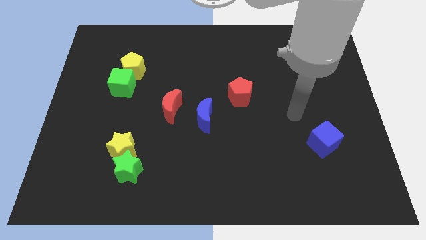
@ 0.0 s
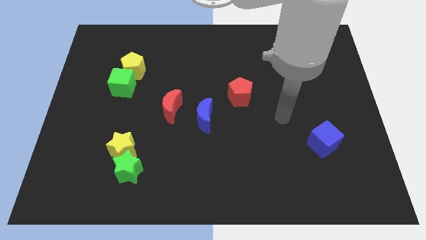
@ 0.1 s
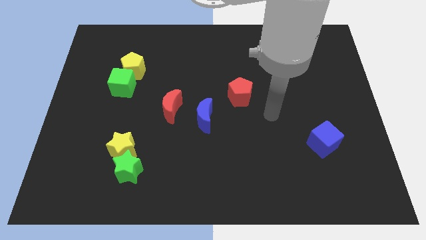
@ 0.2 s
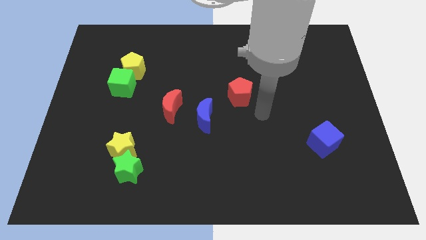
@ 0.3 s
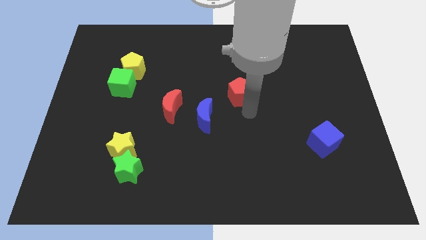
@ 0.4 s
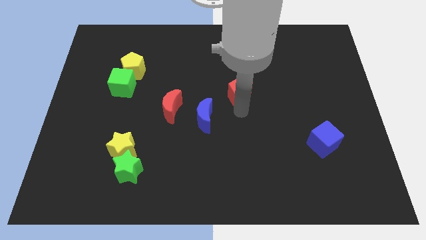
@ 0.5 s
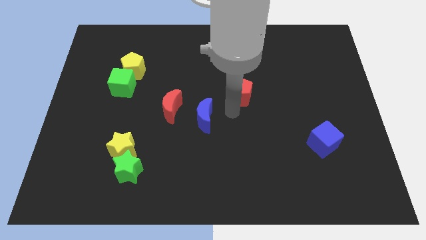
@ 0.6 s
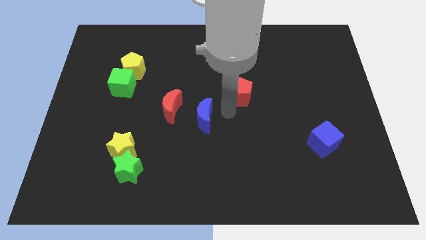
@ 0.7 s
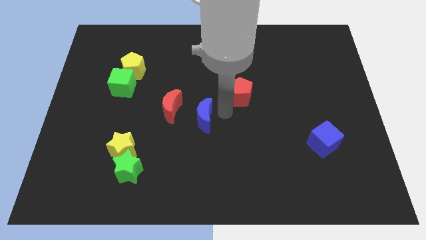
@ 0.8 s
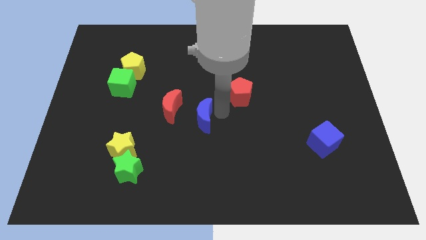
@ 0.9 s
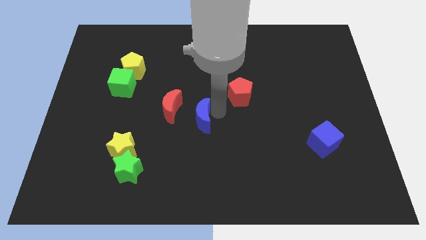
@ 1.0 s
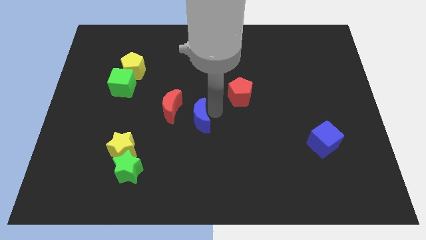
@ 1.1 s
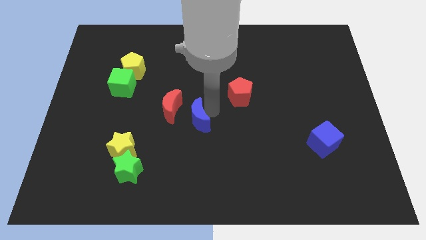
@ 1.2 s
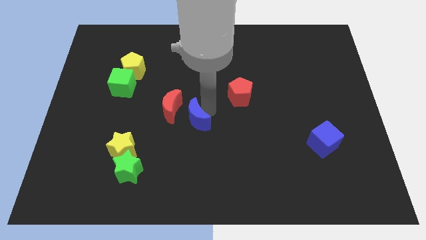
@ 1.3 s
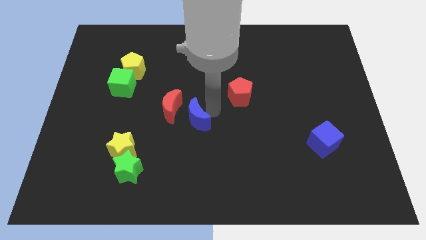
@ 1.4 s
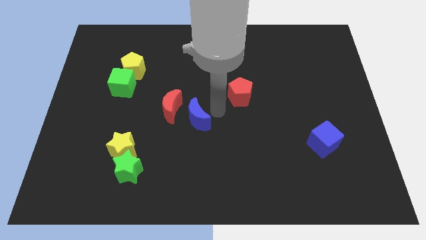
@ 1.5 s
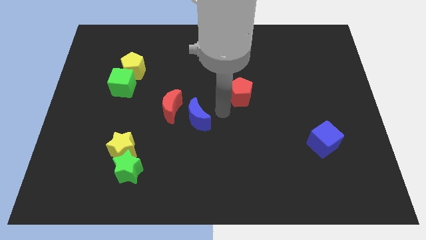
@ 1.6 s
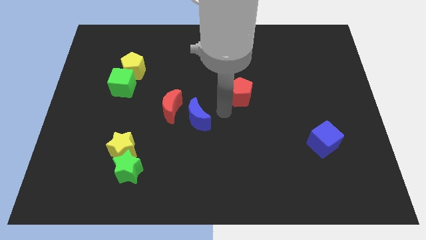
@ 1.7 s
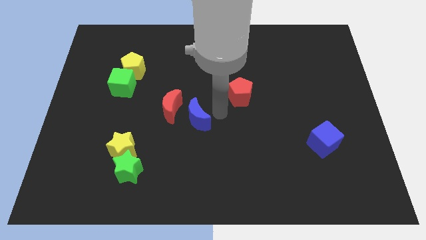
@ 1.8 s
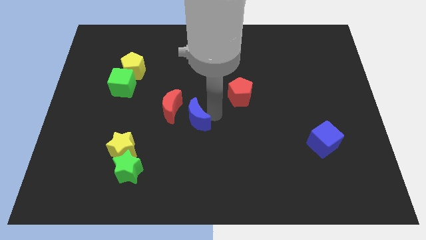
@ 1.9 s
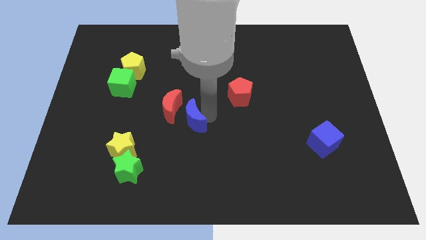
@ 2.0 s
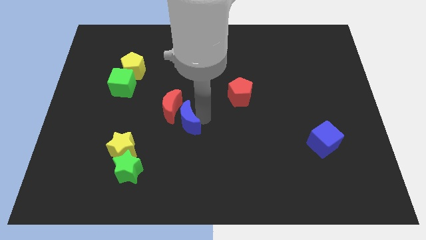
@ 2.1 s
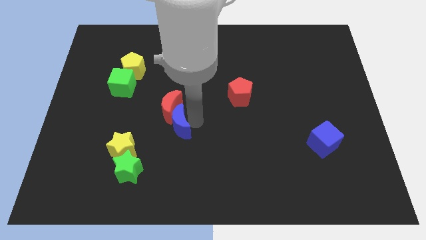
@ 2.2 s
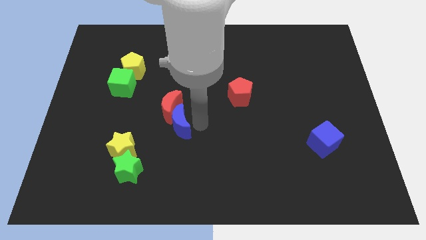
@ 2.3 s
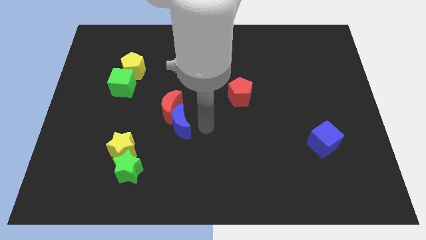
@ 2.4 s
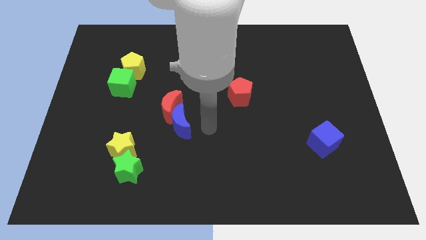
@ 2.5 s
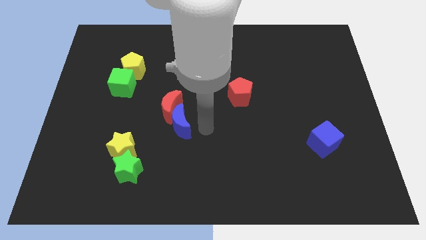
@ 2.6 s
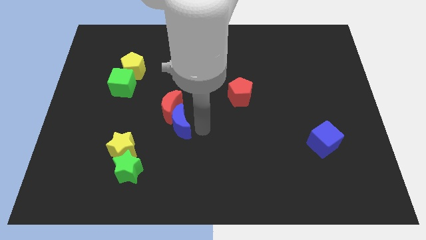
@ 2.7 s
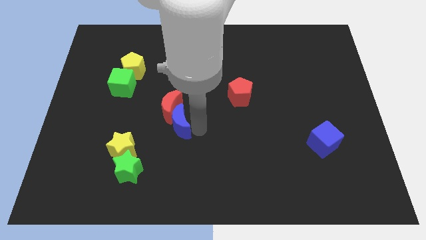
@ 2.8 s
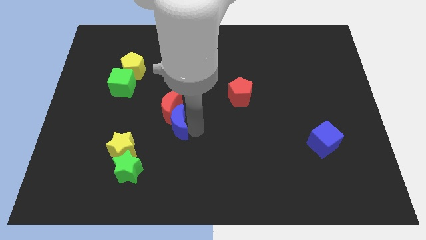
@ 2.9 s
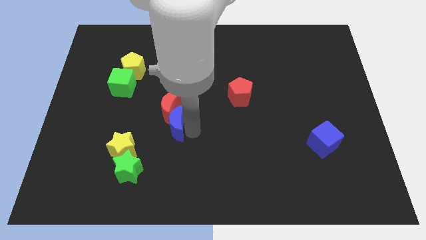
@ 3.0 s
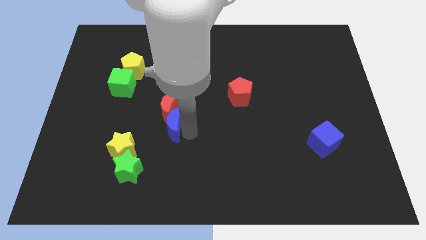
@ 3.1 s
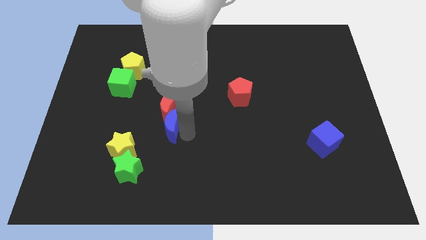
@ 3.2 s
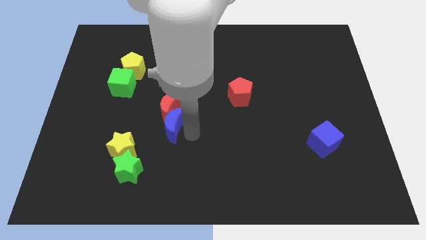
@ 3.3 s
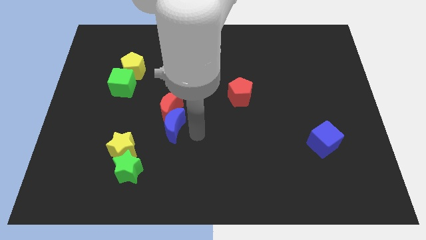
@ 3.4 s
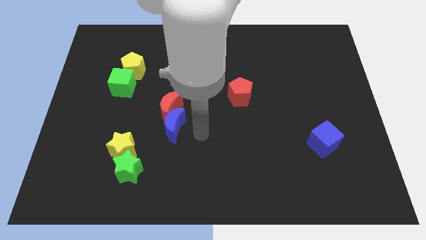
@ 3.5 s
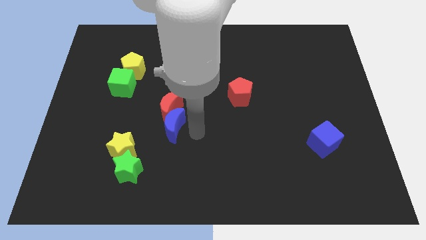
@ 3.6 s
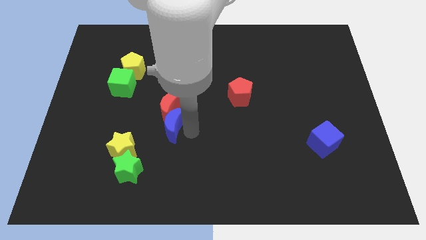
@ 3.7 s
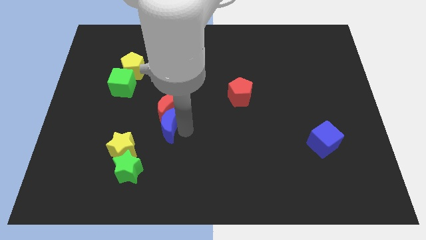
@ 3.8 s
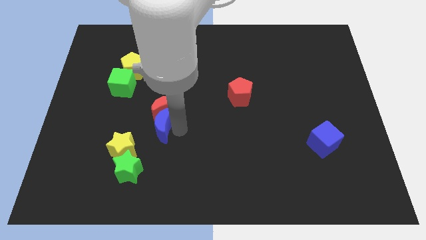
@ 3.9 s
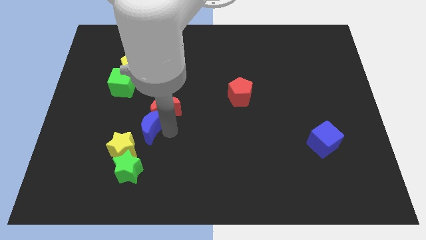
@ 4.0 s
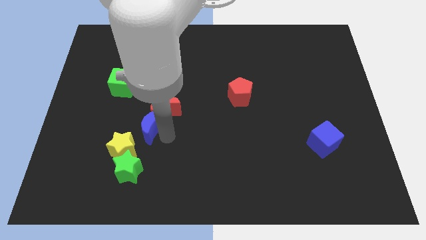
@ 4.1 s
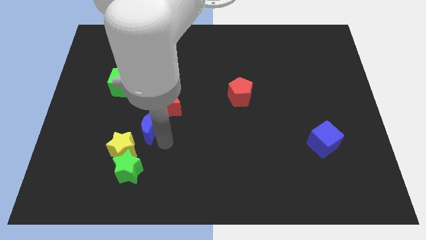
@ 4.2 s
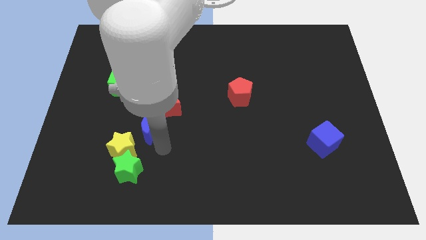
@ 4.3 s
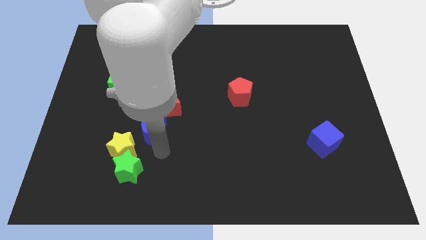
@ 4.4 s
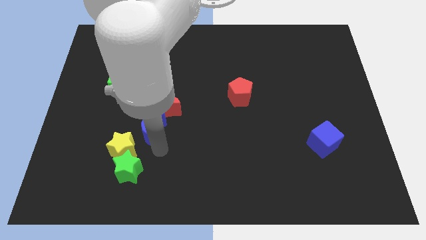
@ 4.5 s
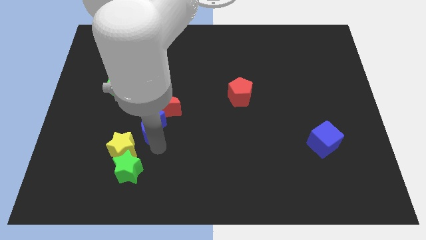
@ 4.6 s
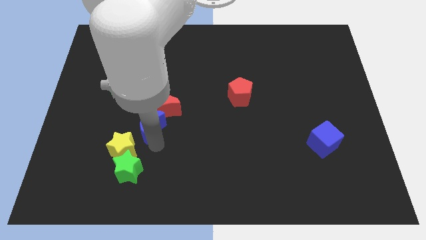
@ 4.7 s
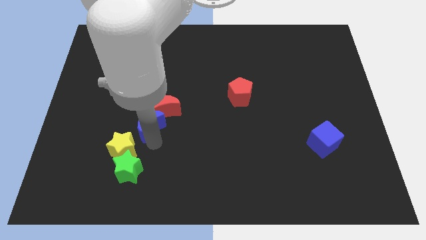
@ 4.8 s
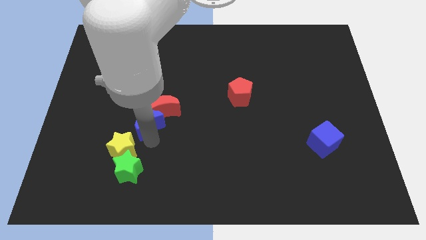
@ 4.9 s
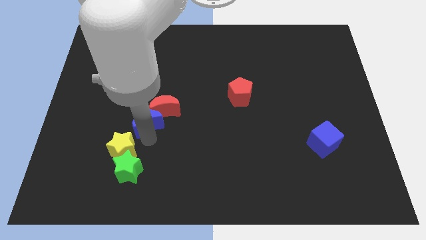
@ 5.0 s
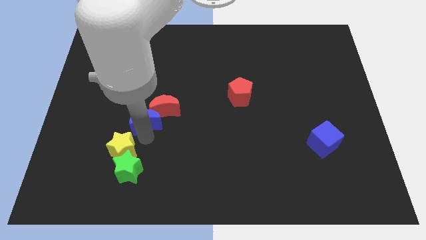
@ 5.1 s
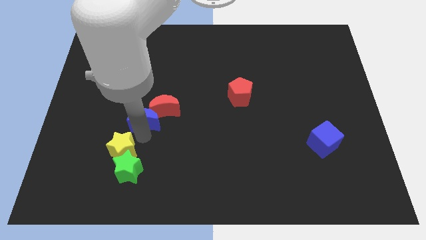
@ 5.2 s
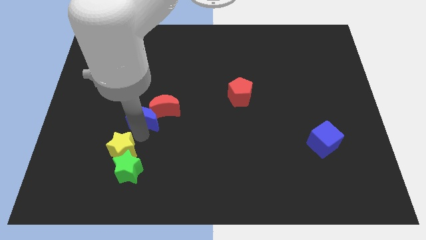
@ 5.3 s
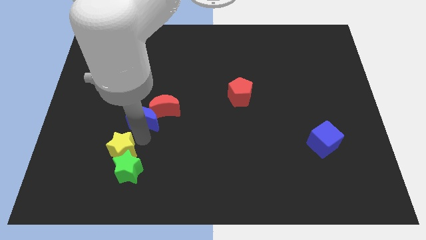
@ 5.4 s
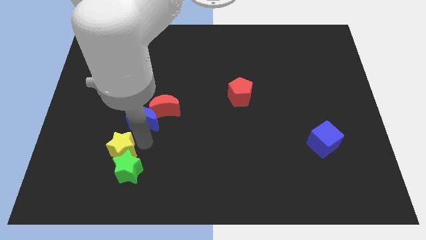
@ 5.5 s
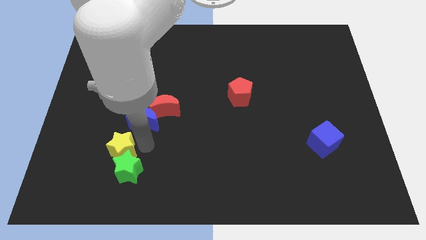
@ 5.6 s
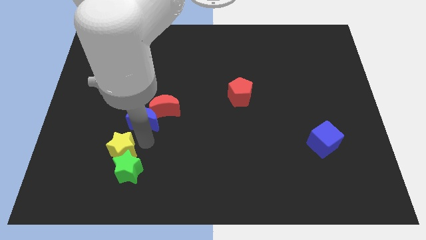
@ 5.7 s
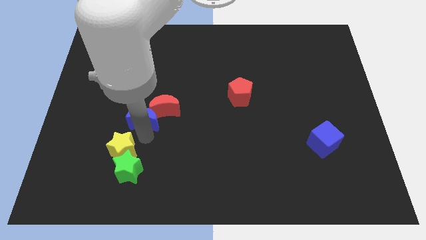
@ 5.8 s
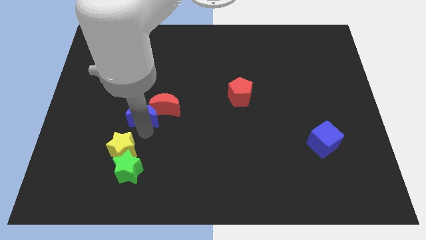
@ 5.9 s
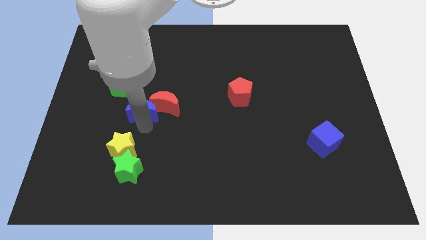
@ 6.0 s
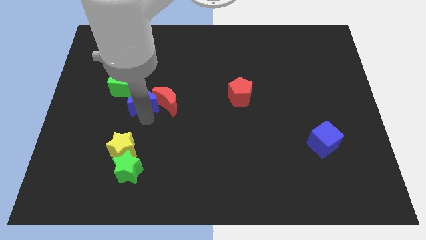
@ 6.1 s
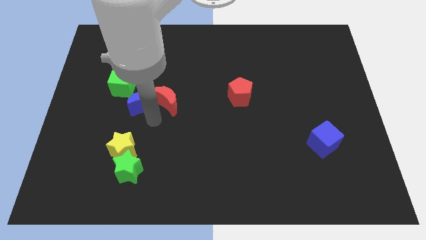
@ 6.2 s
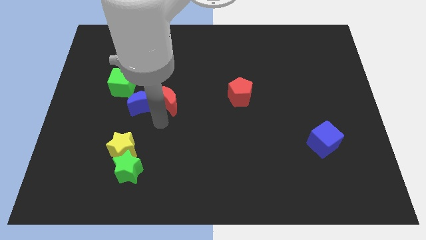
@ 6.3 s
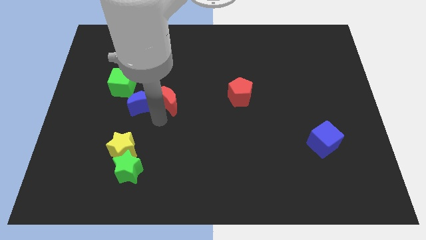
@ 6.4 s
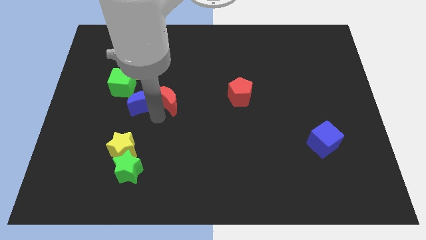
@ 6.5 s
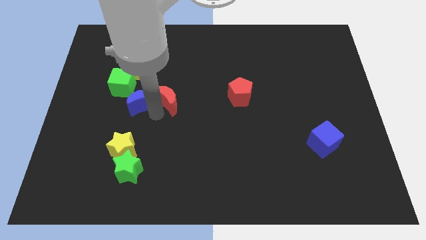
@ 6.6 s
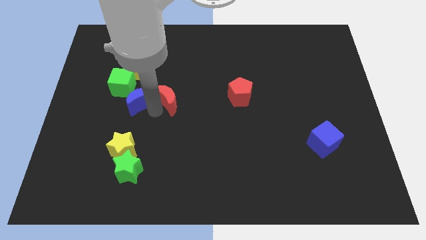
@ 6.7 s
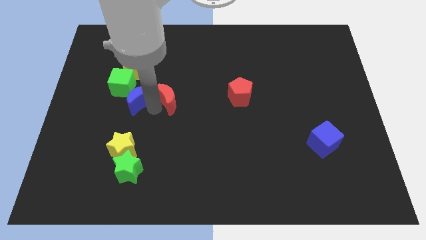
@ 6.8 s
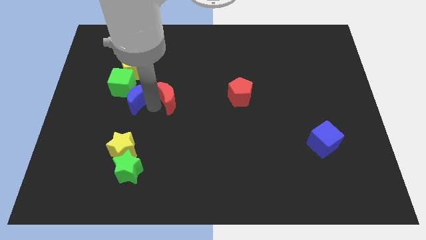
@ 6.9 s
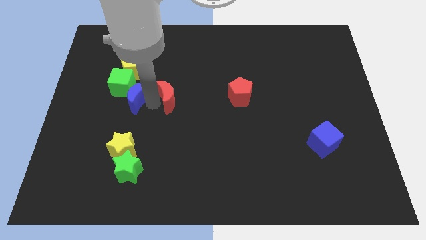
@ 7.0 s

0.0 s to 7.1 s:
move the blue moon towards the green cube
